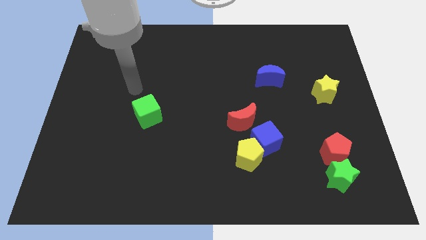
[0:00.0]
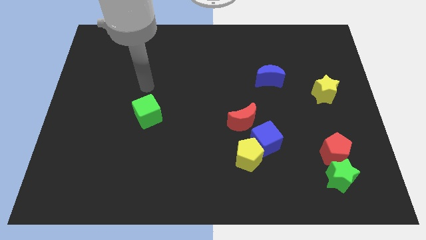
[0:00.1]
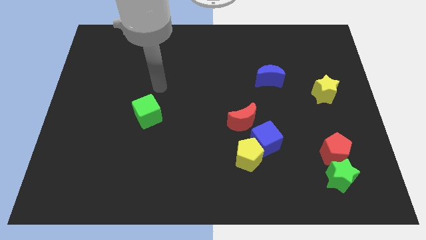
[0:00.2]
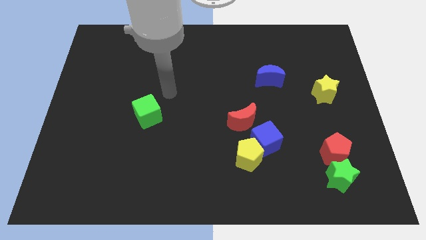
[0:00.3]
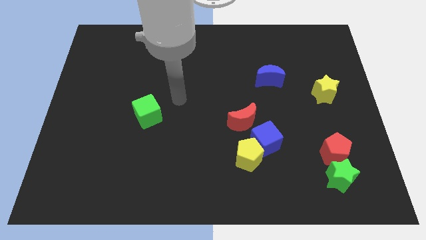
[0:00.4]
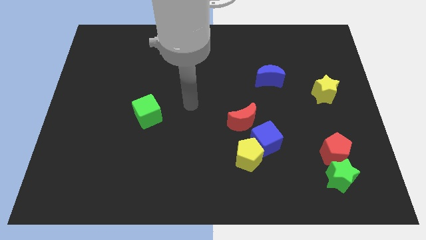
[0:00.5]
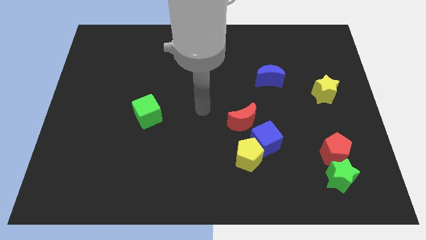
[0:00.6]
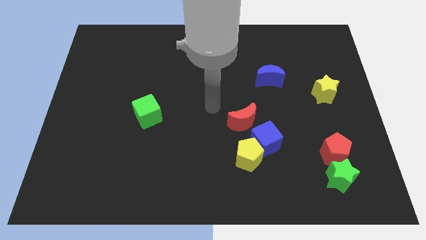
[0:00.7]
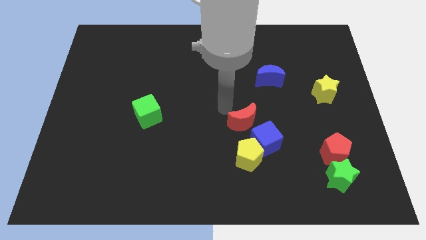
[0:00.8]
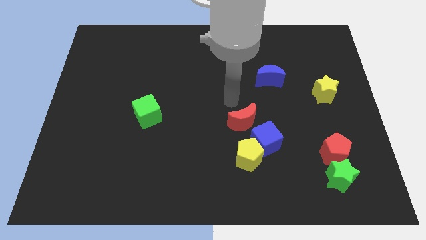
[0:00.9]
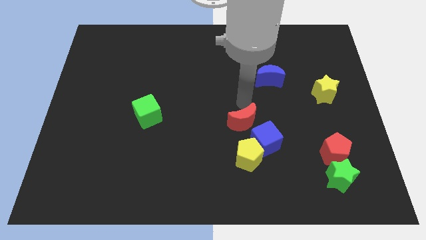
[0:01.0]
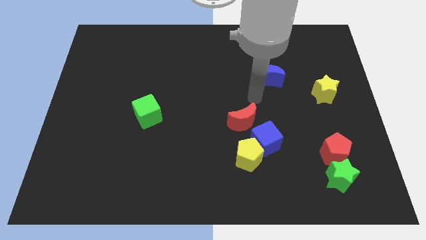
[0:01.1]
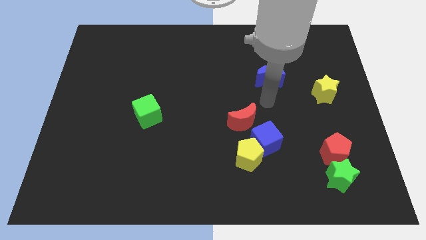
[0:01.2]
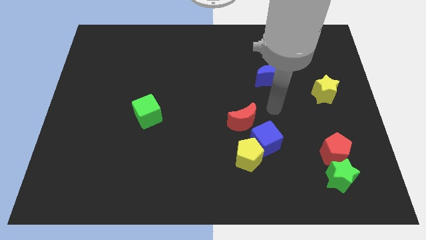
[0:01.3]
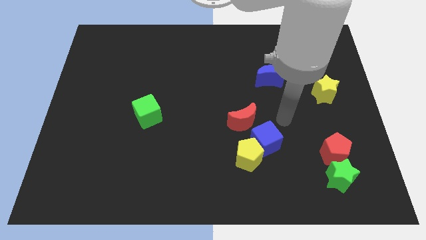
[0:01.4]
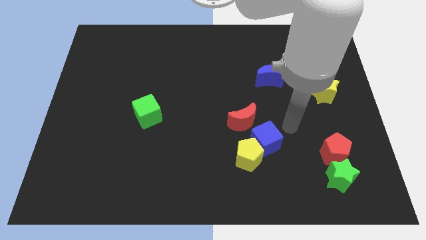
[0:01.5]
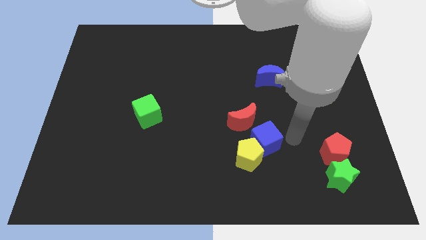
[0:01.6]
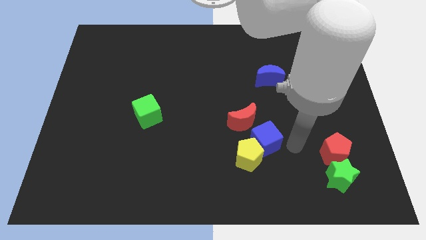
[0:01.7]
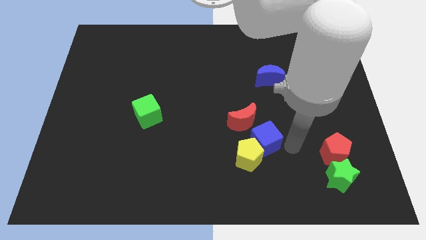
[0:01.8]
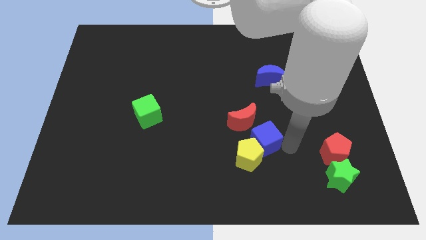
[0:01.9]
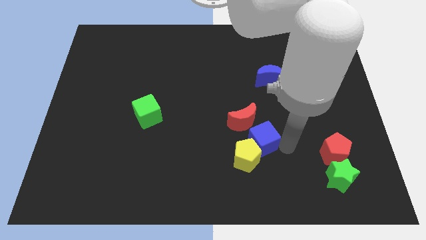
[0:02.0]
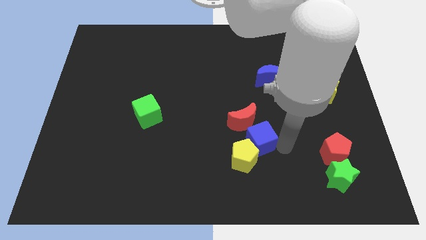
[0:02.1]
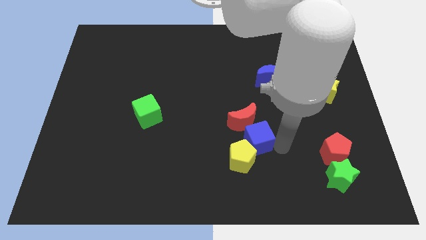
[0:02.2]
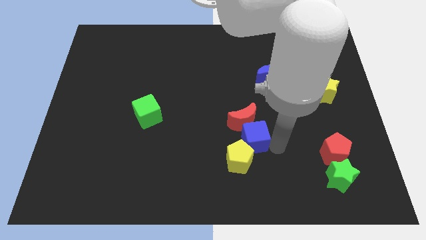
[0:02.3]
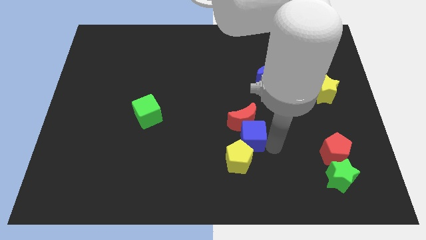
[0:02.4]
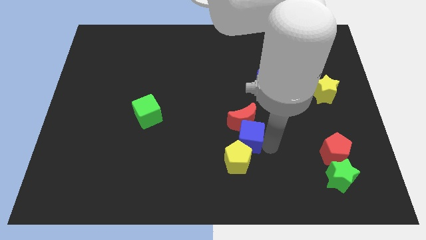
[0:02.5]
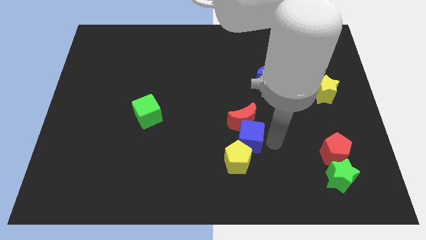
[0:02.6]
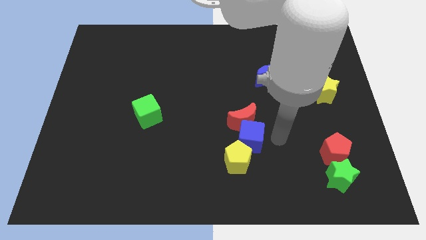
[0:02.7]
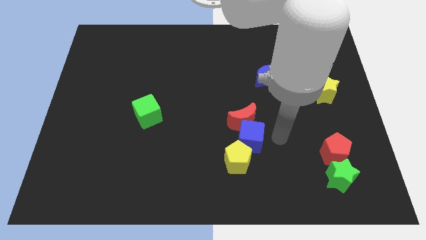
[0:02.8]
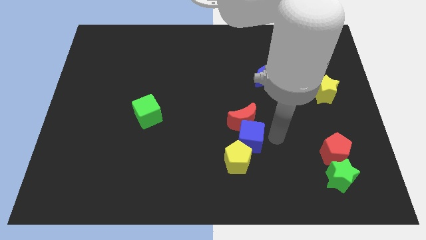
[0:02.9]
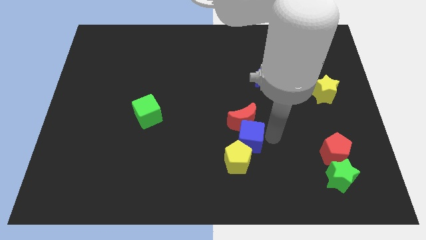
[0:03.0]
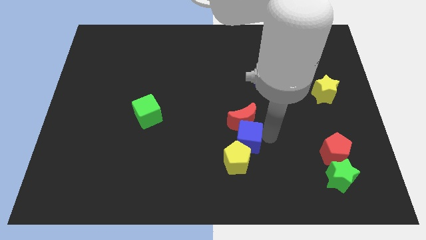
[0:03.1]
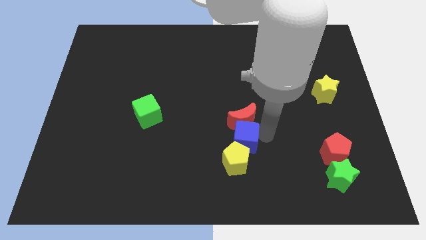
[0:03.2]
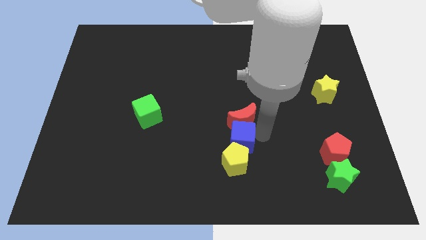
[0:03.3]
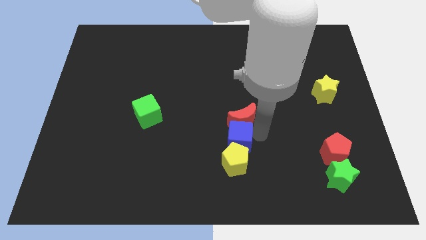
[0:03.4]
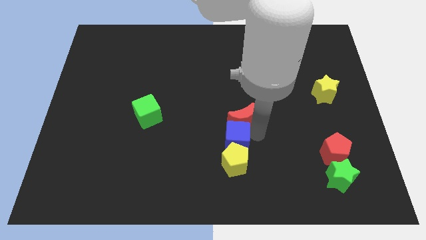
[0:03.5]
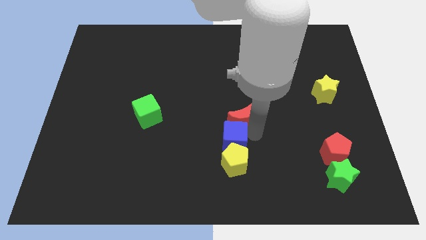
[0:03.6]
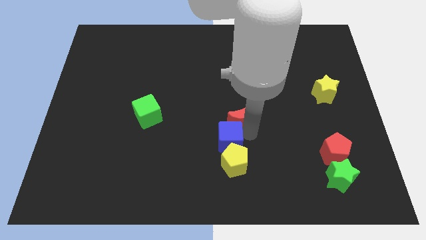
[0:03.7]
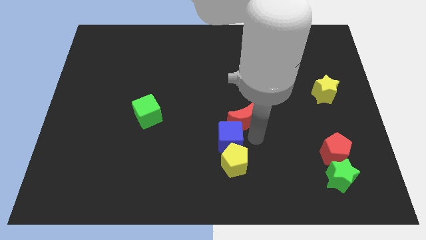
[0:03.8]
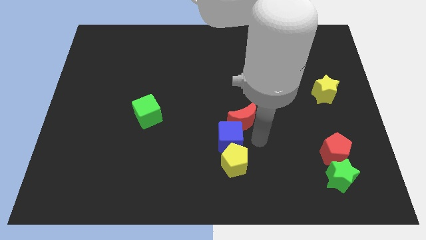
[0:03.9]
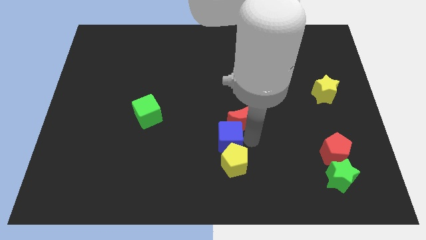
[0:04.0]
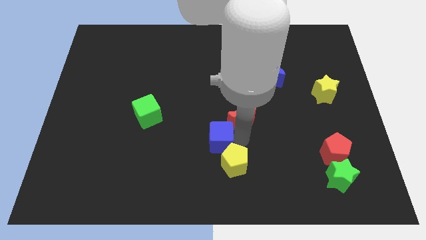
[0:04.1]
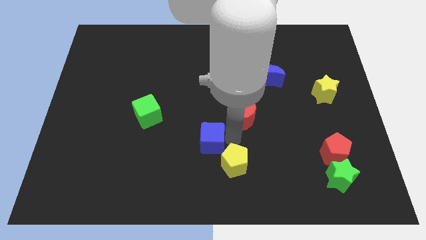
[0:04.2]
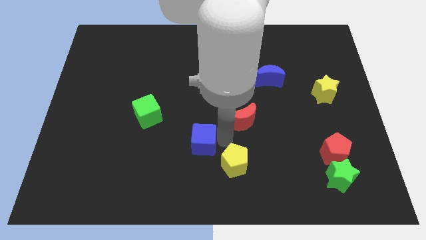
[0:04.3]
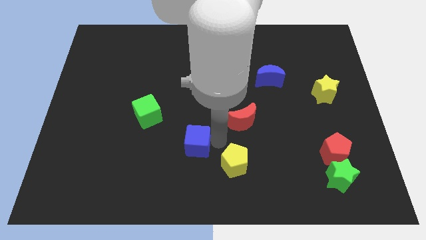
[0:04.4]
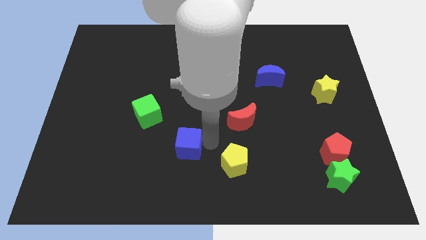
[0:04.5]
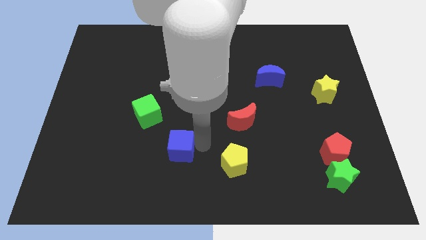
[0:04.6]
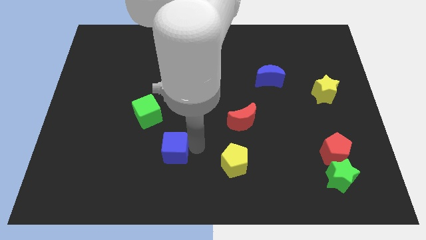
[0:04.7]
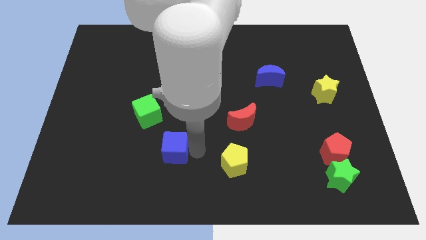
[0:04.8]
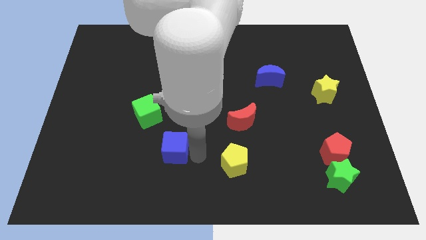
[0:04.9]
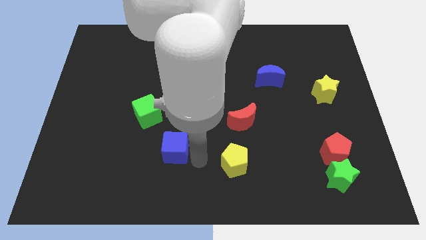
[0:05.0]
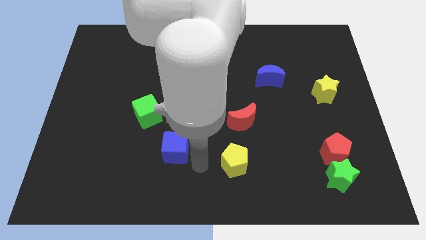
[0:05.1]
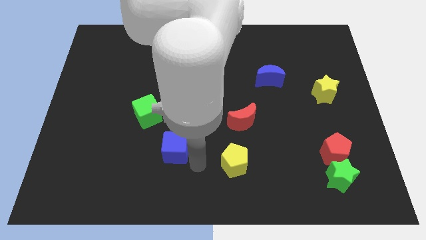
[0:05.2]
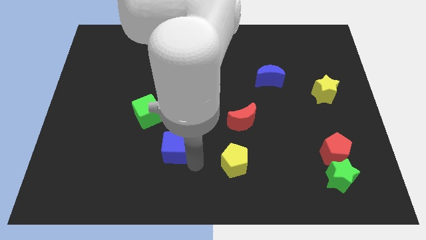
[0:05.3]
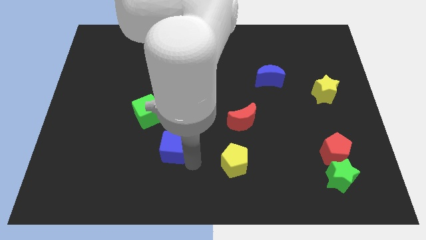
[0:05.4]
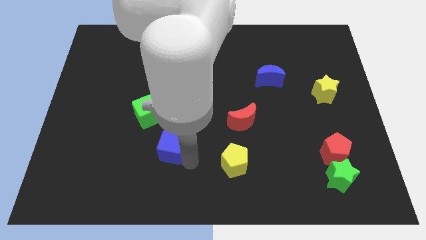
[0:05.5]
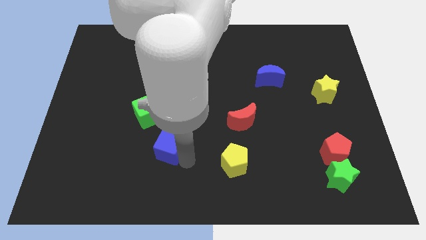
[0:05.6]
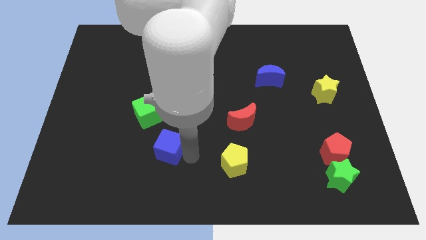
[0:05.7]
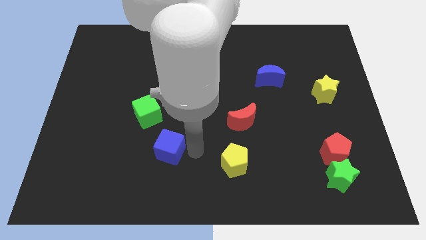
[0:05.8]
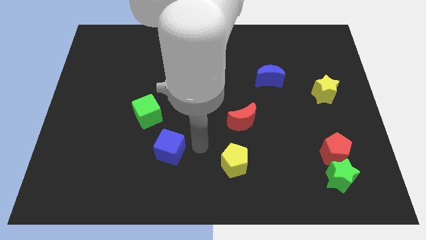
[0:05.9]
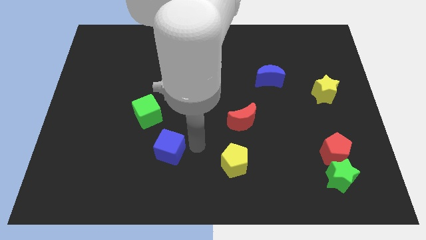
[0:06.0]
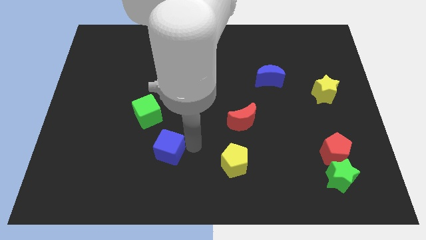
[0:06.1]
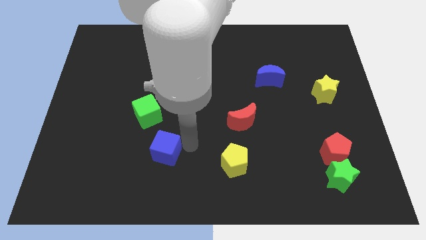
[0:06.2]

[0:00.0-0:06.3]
put the blue cube to the bottom side of the green cube

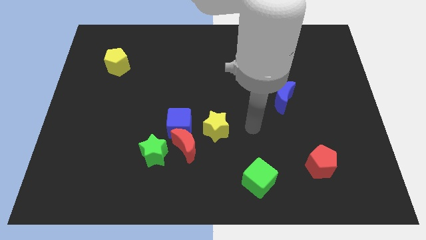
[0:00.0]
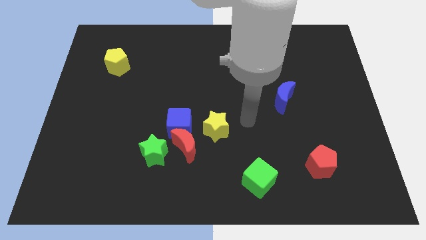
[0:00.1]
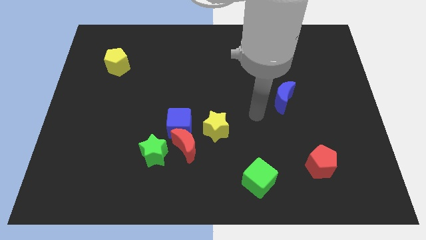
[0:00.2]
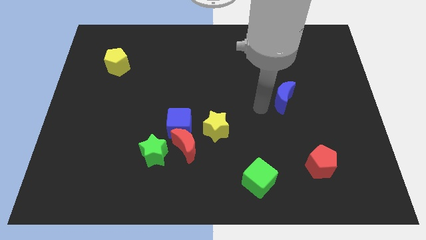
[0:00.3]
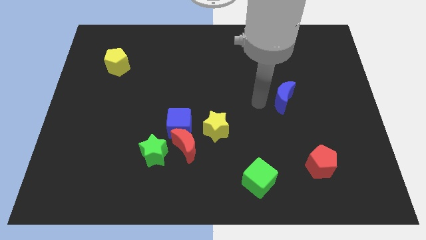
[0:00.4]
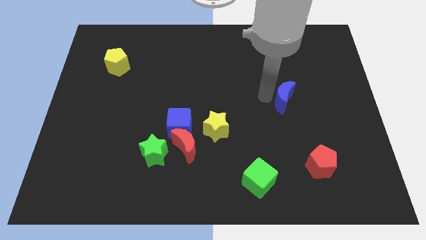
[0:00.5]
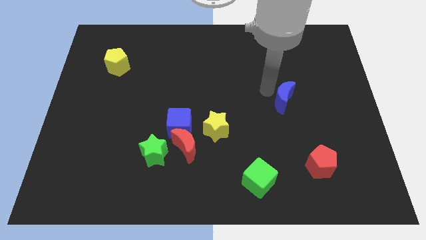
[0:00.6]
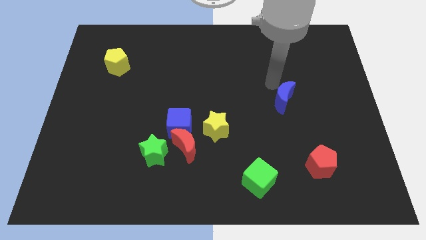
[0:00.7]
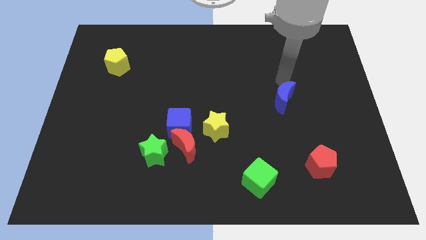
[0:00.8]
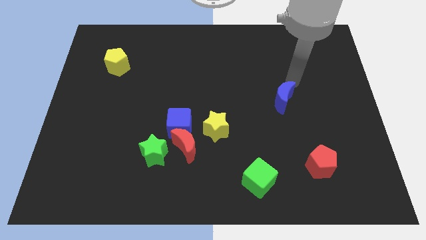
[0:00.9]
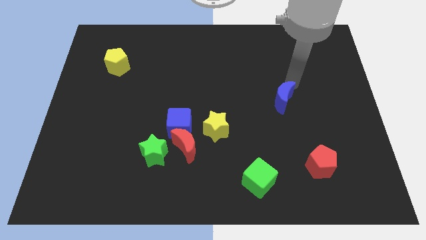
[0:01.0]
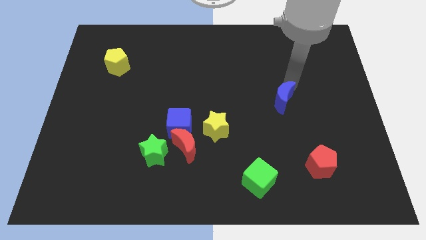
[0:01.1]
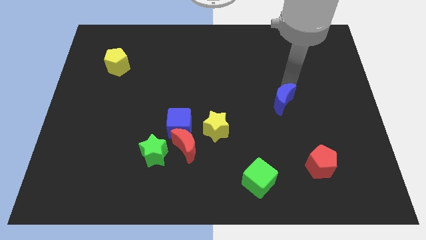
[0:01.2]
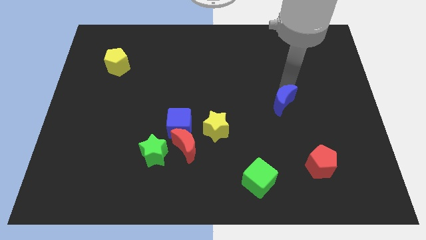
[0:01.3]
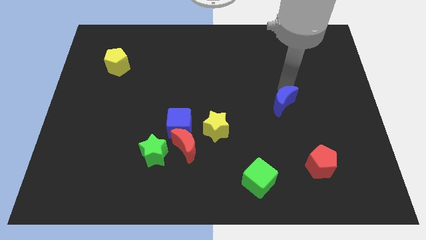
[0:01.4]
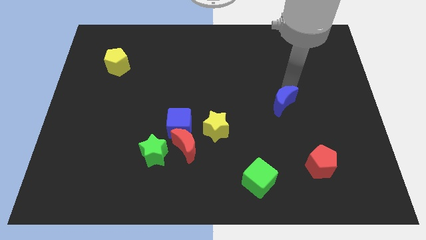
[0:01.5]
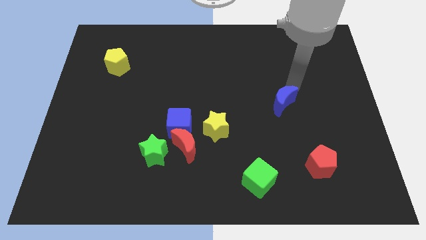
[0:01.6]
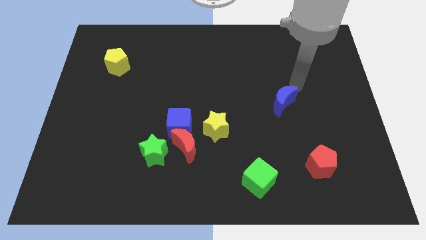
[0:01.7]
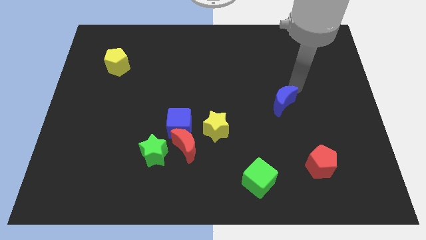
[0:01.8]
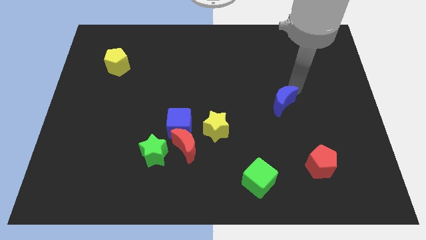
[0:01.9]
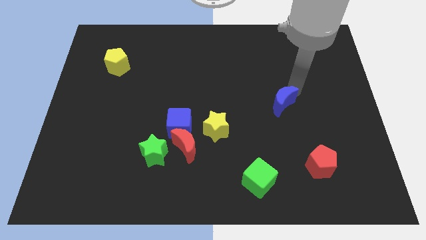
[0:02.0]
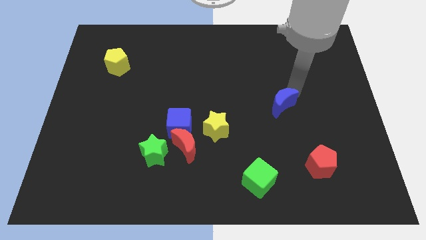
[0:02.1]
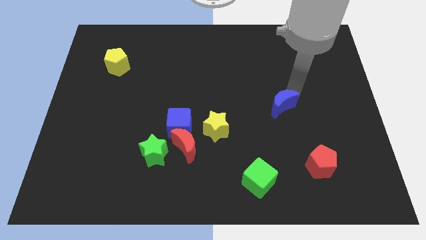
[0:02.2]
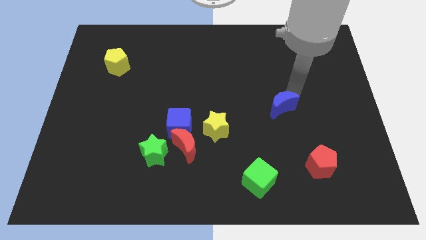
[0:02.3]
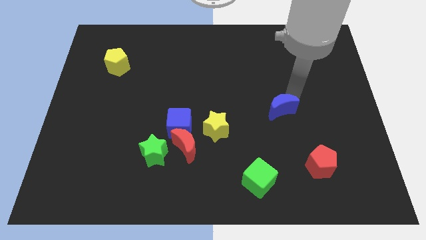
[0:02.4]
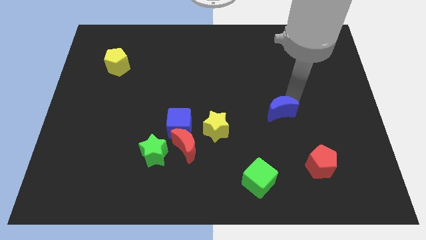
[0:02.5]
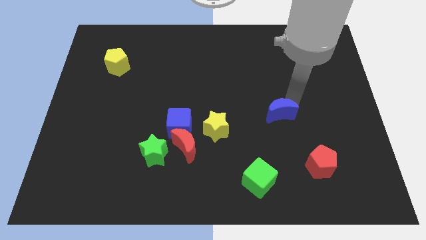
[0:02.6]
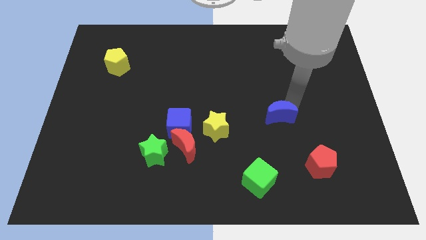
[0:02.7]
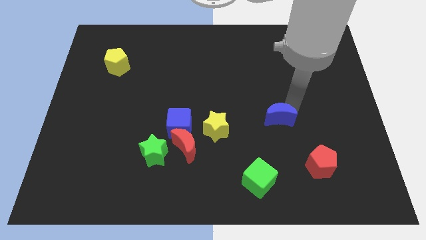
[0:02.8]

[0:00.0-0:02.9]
put the blue moon right of the yellow star
